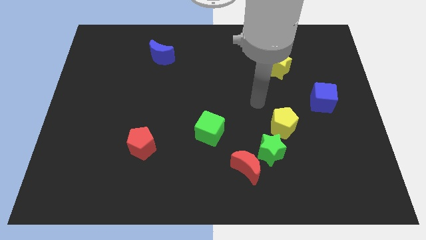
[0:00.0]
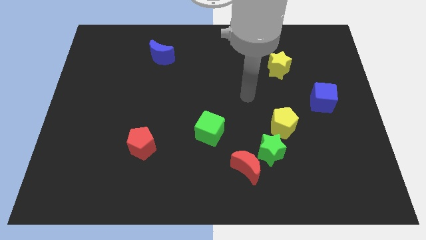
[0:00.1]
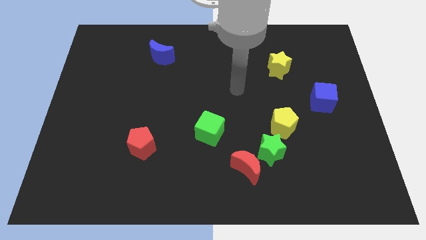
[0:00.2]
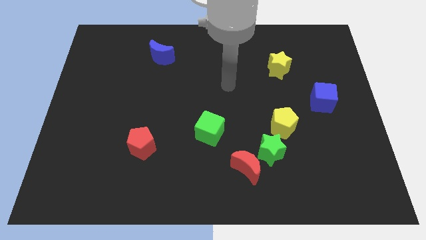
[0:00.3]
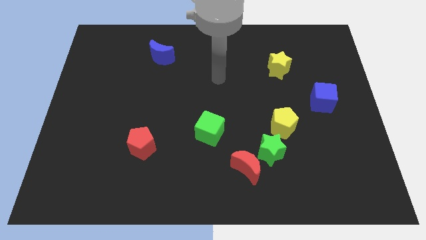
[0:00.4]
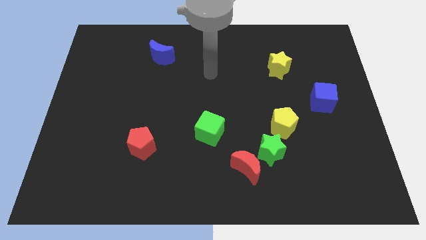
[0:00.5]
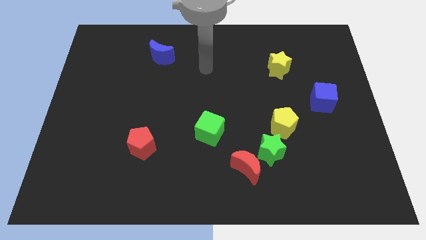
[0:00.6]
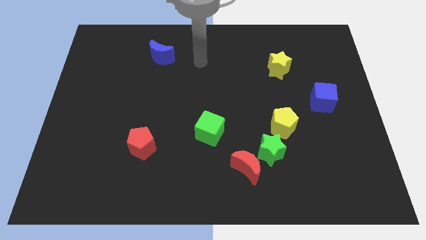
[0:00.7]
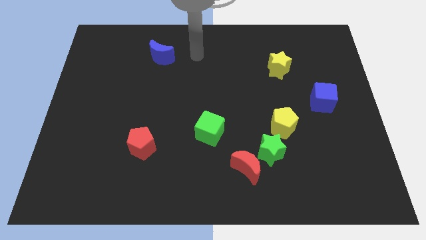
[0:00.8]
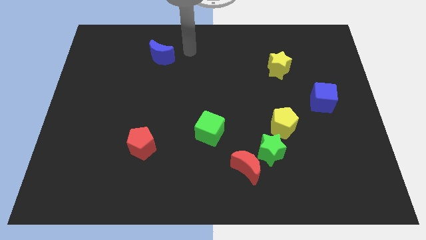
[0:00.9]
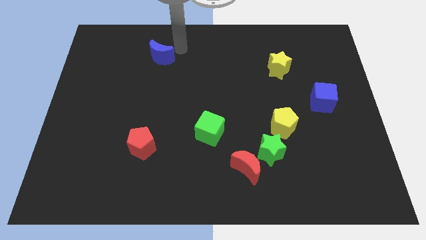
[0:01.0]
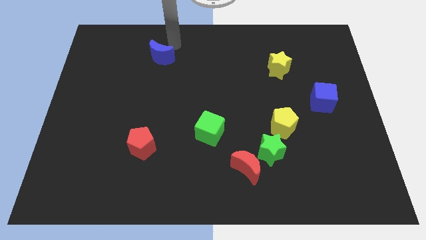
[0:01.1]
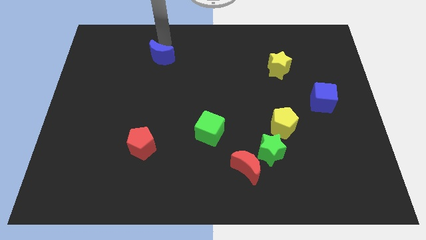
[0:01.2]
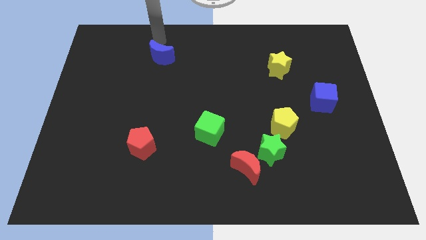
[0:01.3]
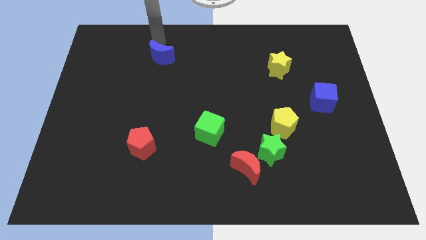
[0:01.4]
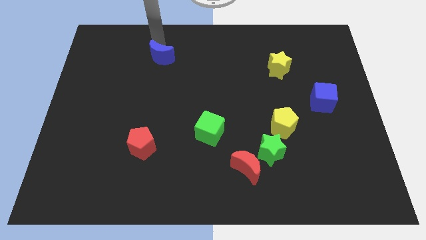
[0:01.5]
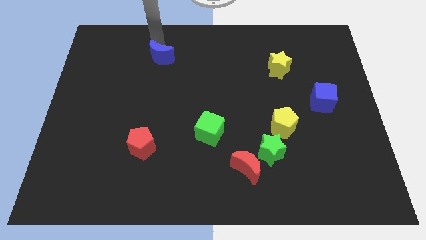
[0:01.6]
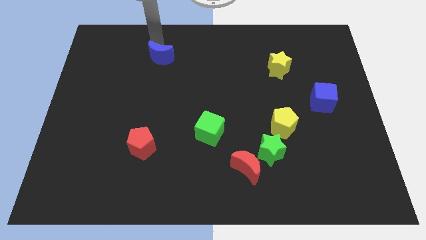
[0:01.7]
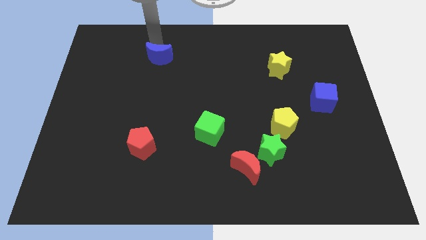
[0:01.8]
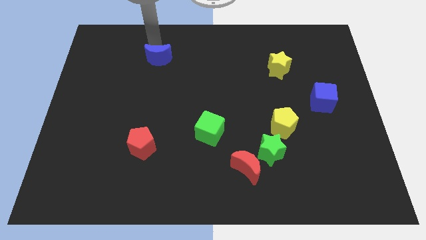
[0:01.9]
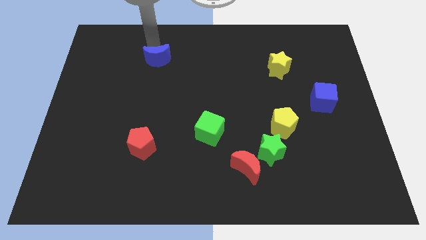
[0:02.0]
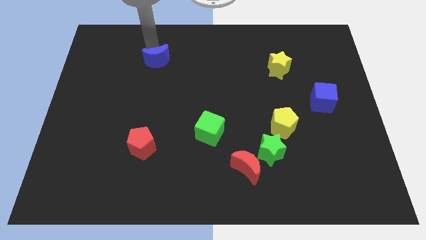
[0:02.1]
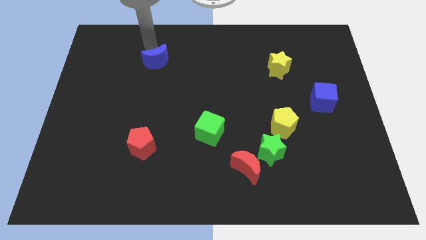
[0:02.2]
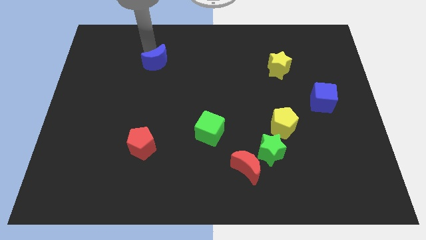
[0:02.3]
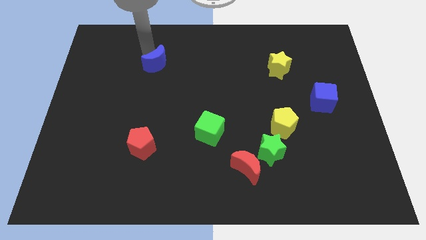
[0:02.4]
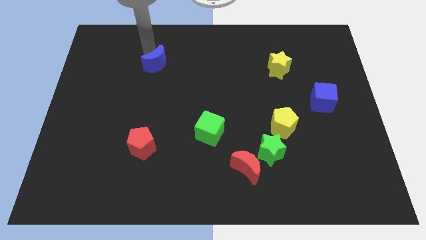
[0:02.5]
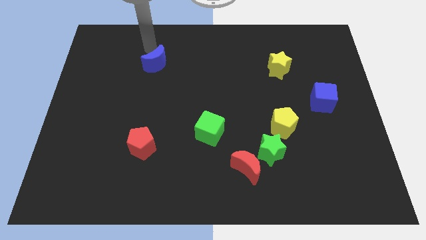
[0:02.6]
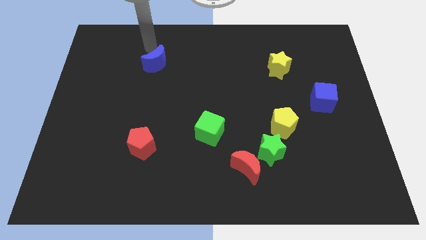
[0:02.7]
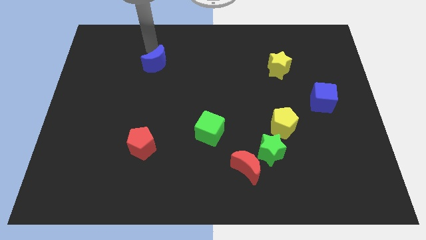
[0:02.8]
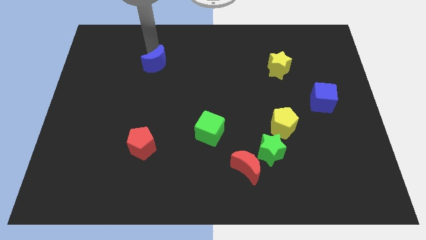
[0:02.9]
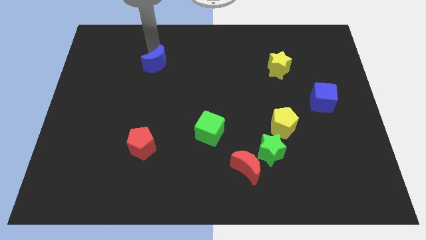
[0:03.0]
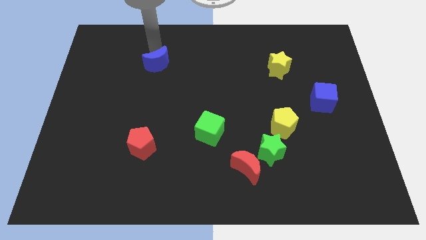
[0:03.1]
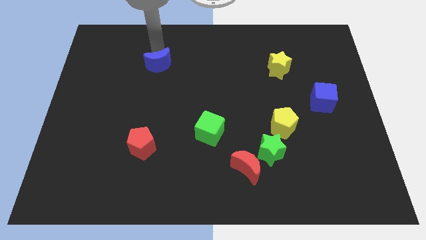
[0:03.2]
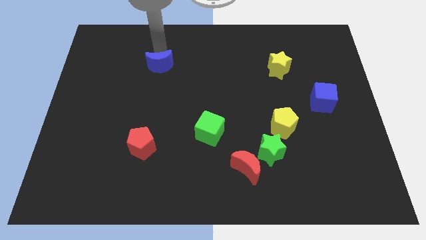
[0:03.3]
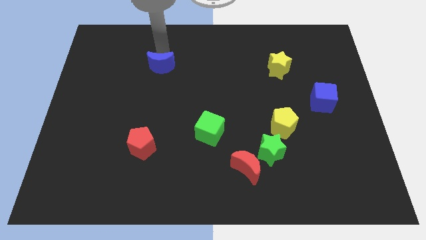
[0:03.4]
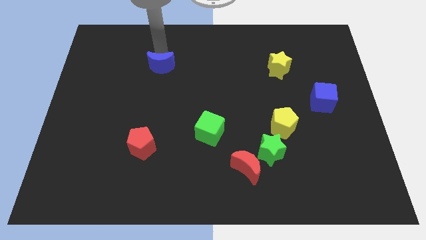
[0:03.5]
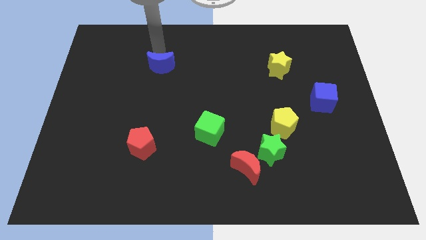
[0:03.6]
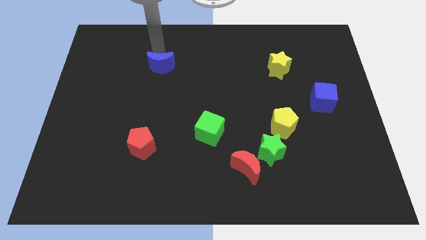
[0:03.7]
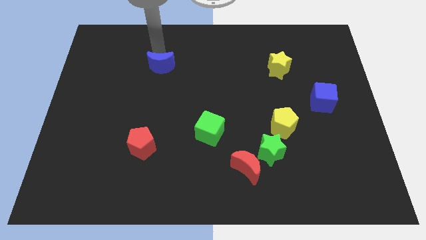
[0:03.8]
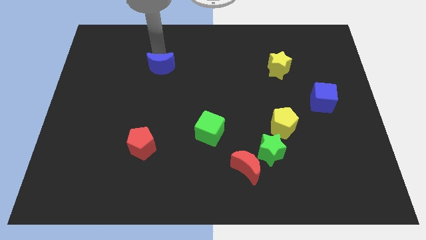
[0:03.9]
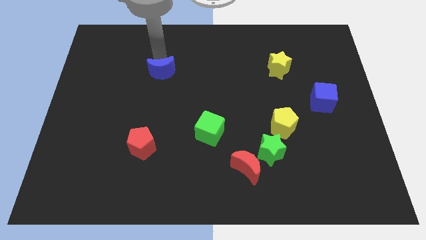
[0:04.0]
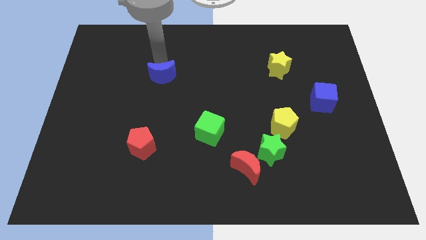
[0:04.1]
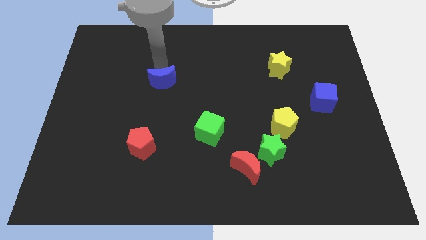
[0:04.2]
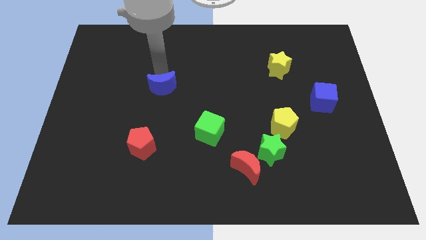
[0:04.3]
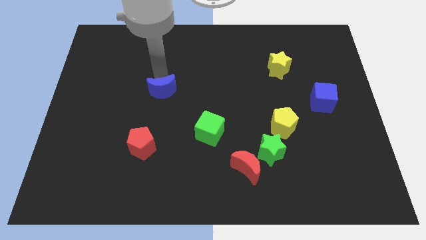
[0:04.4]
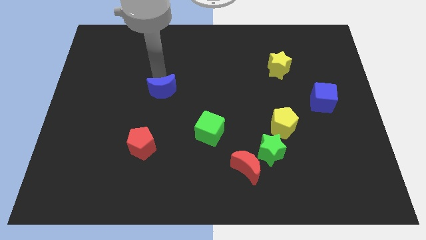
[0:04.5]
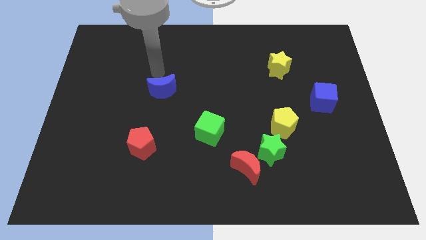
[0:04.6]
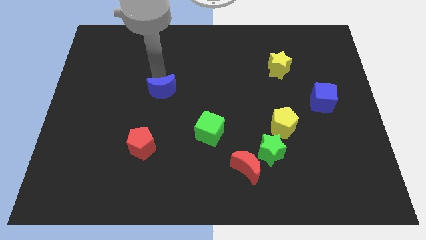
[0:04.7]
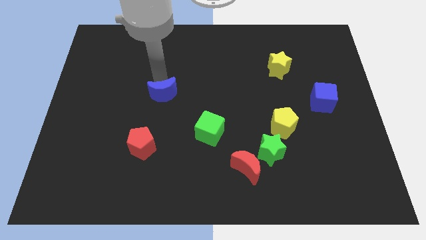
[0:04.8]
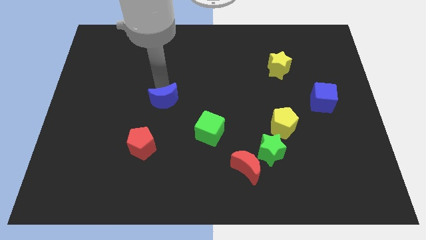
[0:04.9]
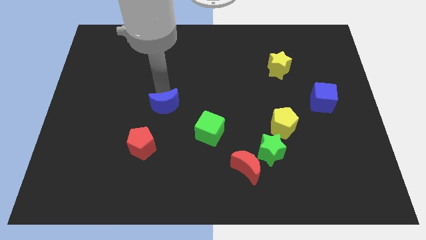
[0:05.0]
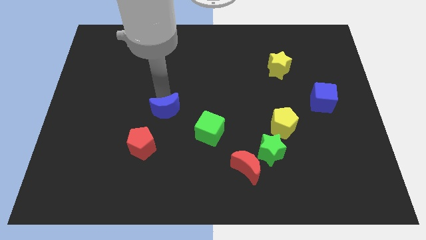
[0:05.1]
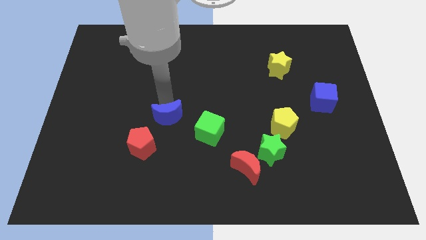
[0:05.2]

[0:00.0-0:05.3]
push the blue moon left of the green cube
